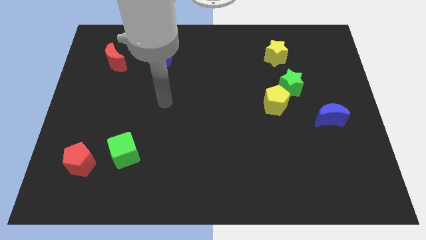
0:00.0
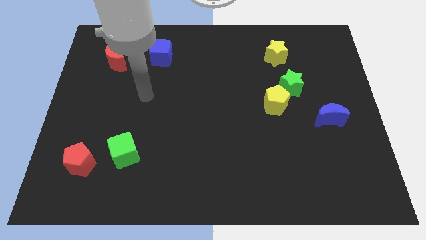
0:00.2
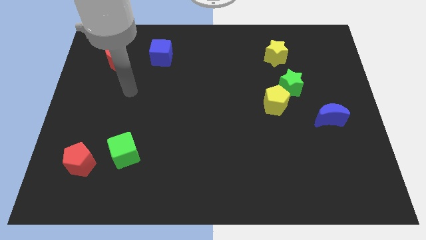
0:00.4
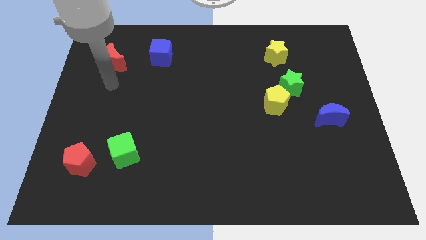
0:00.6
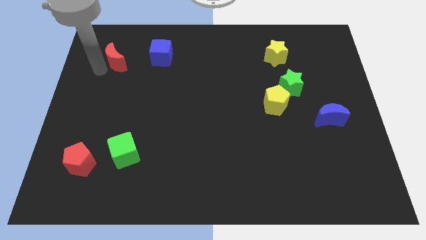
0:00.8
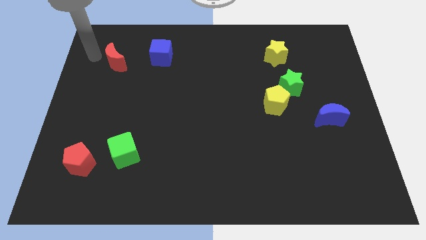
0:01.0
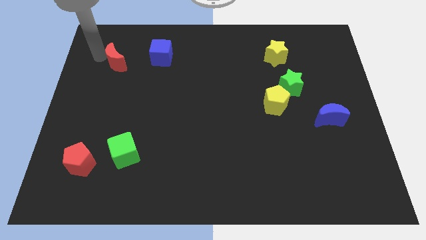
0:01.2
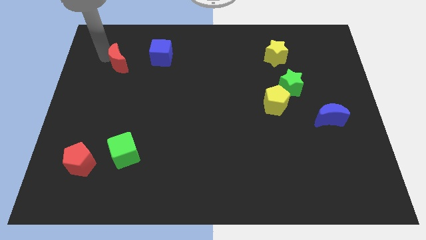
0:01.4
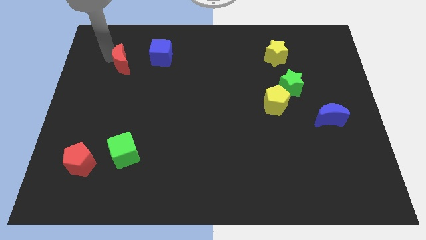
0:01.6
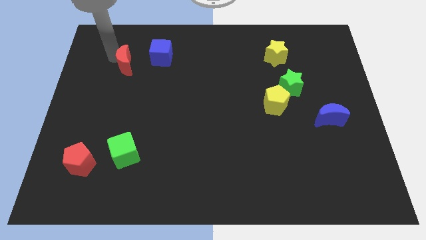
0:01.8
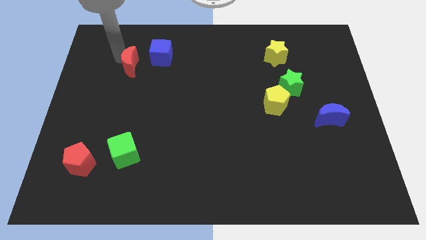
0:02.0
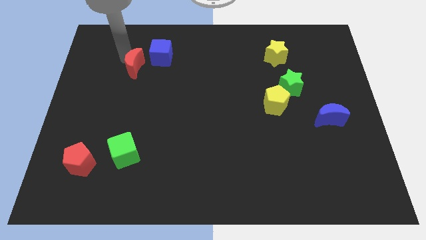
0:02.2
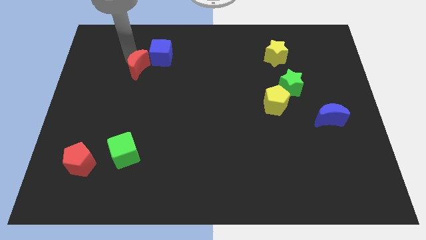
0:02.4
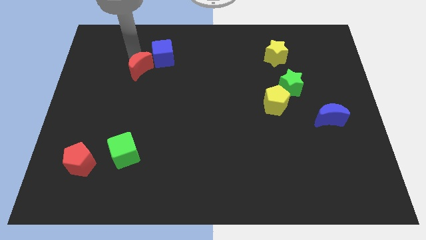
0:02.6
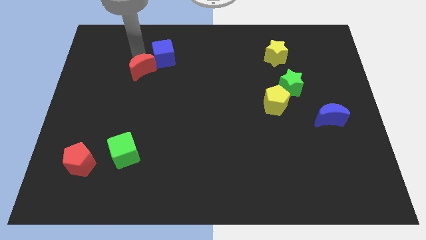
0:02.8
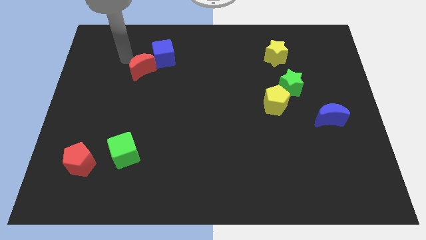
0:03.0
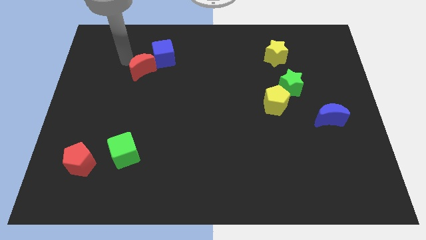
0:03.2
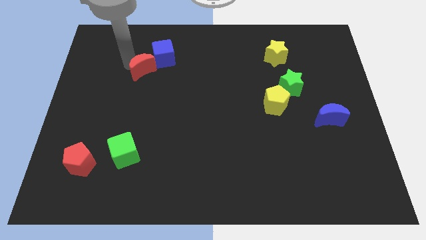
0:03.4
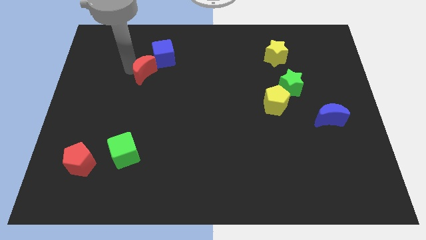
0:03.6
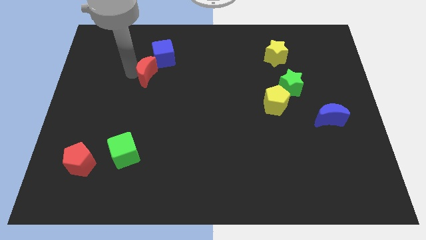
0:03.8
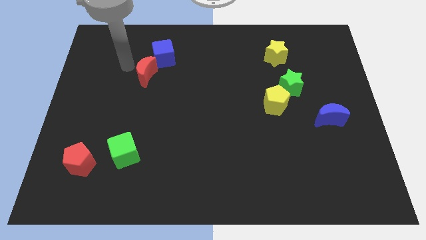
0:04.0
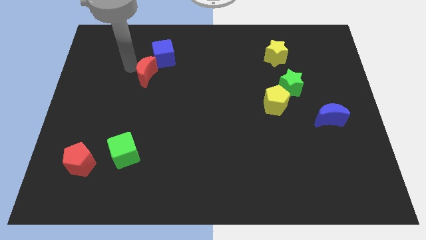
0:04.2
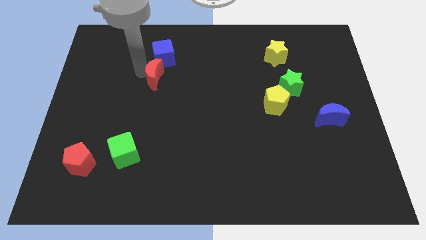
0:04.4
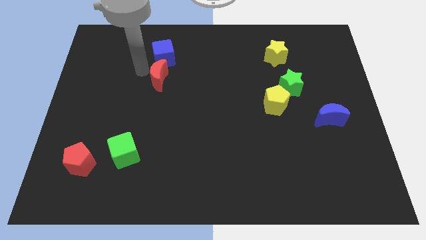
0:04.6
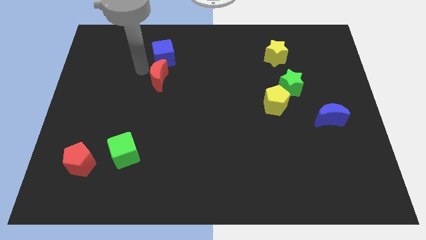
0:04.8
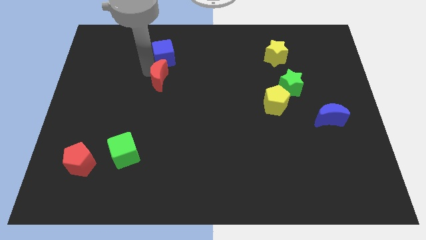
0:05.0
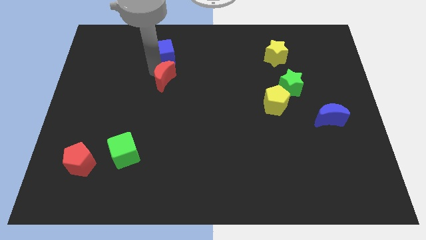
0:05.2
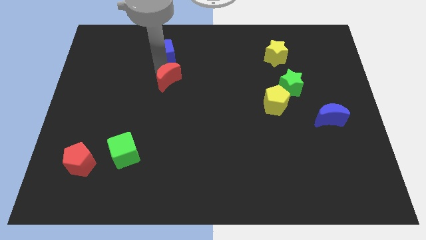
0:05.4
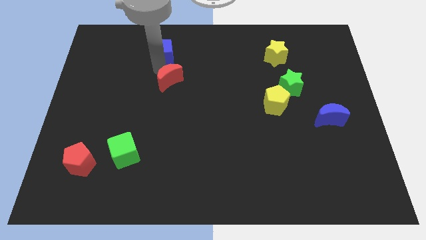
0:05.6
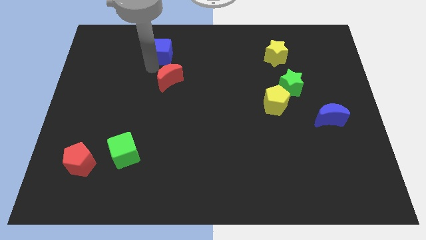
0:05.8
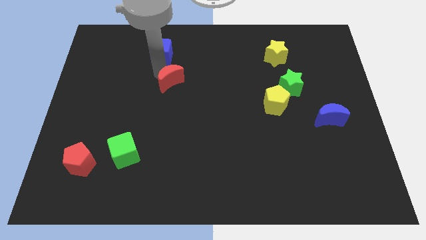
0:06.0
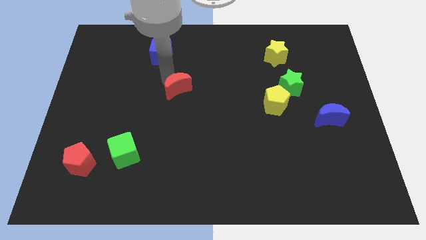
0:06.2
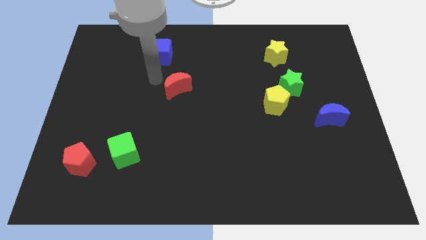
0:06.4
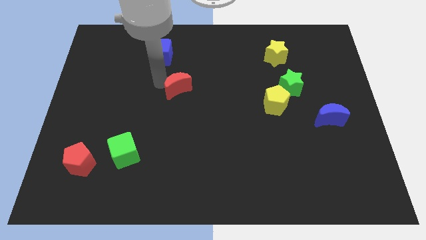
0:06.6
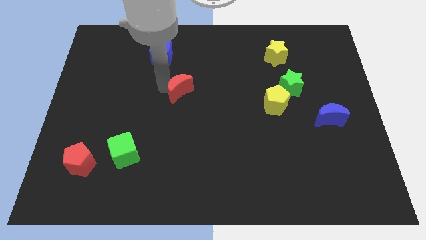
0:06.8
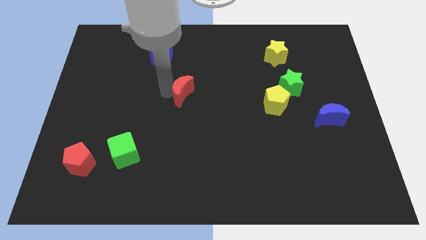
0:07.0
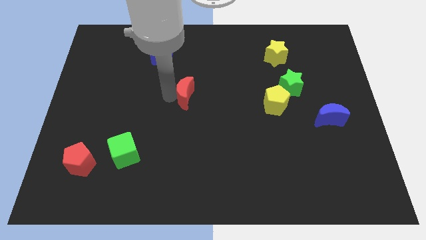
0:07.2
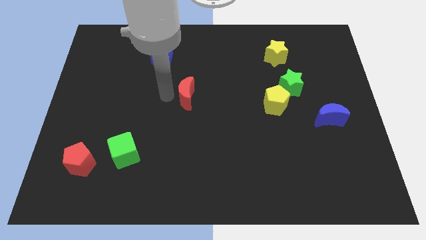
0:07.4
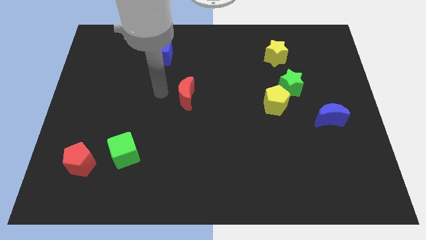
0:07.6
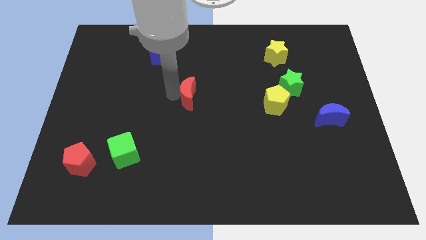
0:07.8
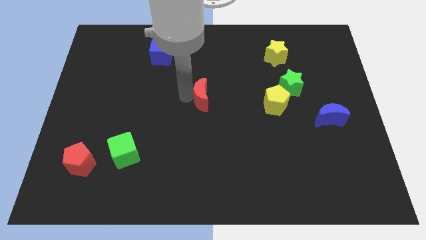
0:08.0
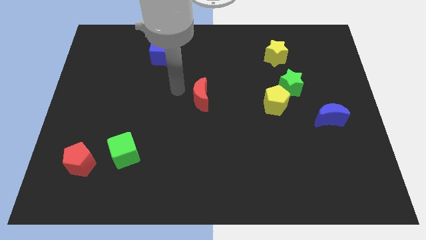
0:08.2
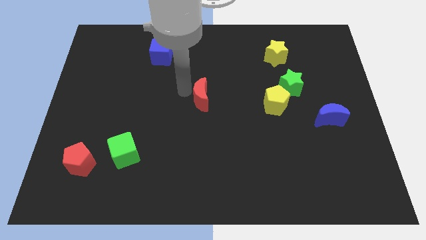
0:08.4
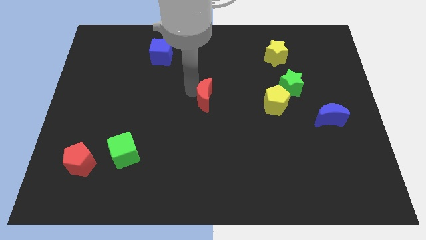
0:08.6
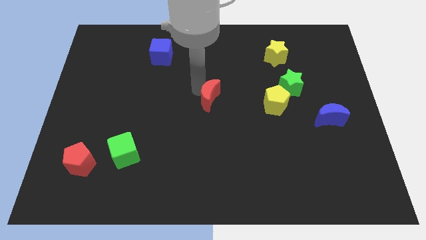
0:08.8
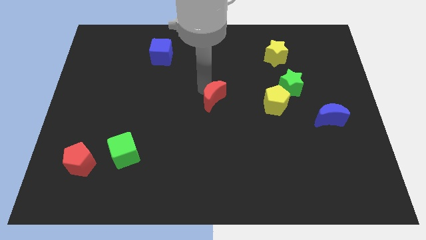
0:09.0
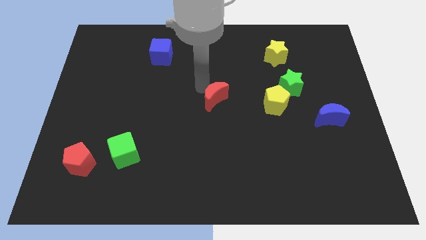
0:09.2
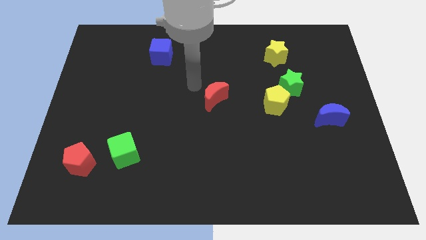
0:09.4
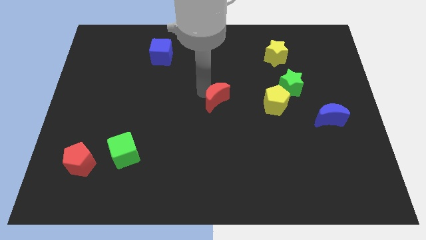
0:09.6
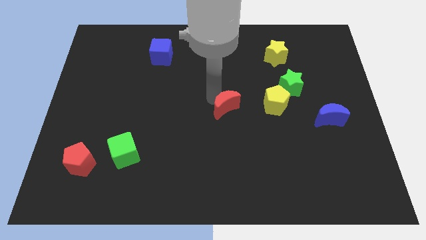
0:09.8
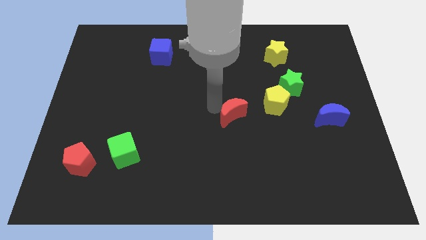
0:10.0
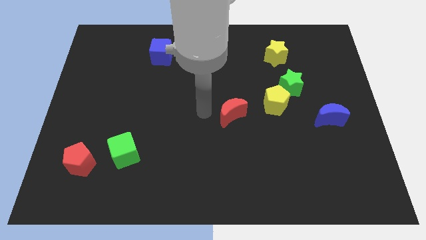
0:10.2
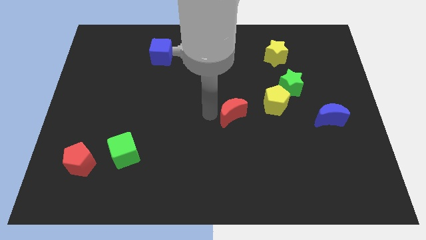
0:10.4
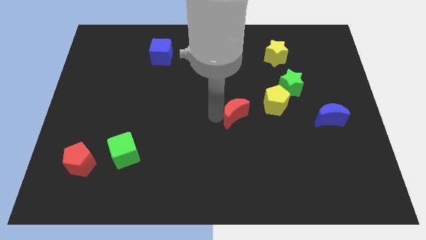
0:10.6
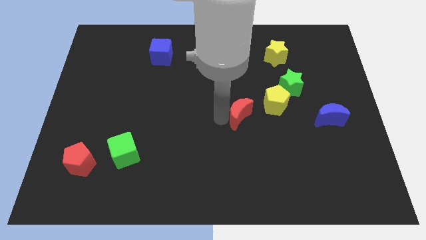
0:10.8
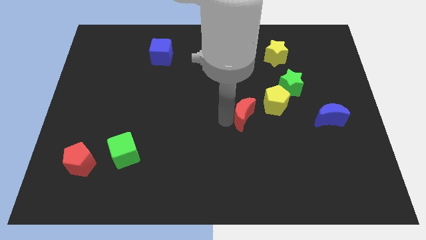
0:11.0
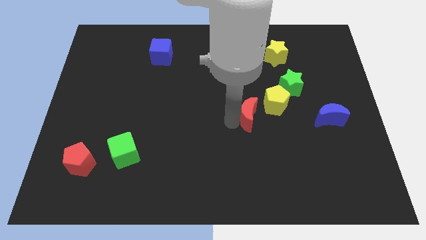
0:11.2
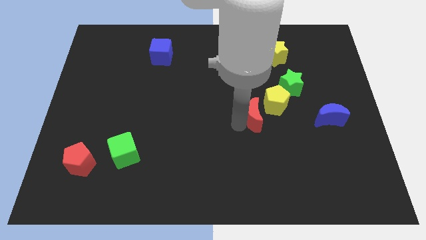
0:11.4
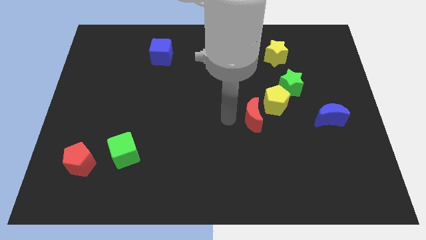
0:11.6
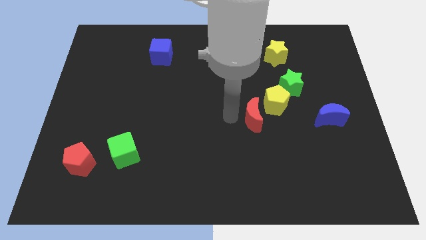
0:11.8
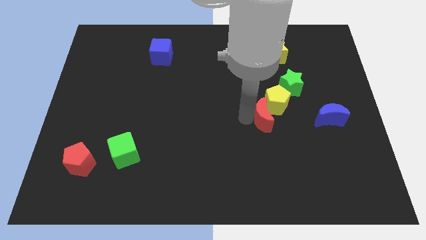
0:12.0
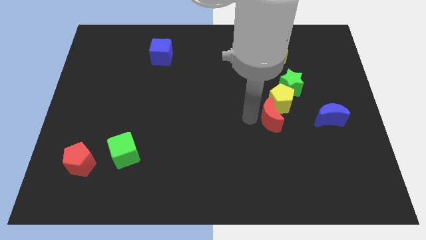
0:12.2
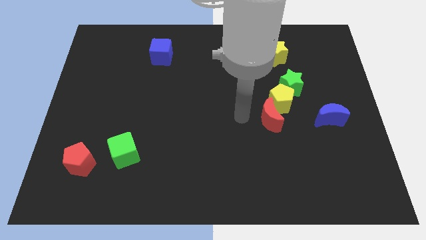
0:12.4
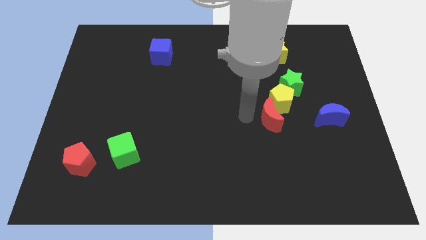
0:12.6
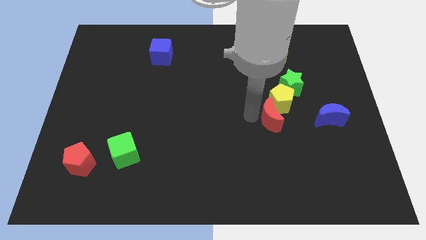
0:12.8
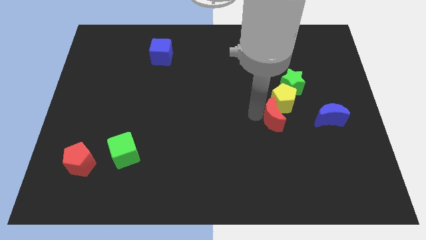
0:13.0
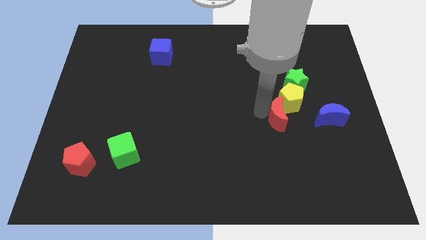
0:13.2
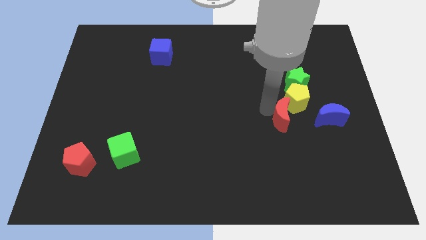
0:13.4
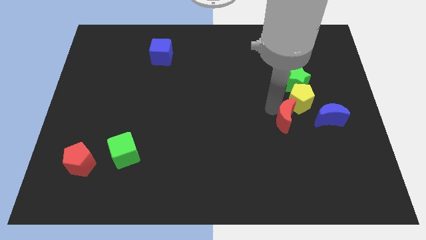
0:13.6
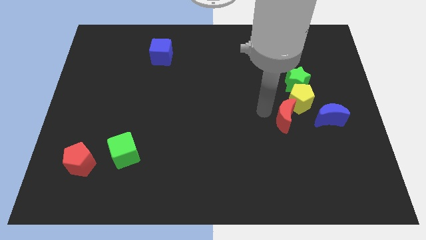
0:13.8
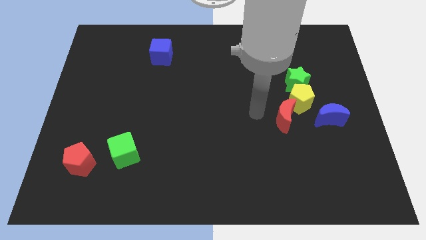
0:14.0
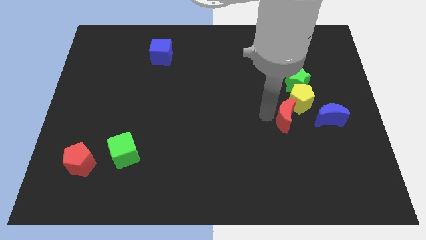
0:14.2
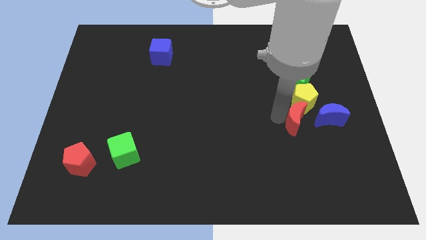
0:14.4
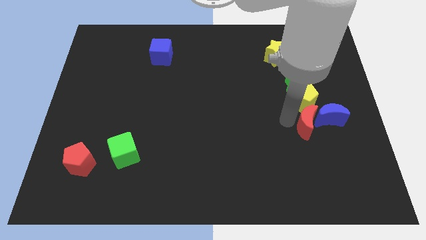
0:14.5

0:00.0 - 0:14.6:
move the red moon next to the blue moon

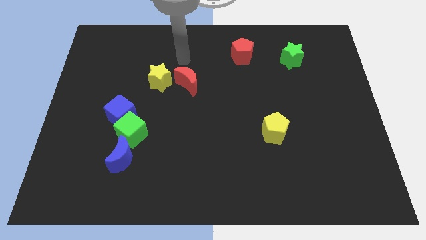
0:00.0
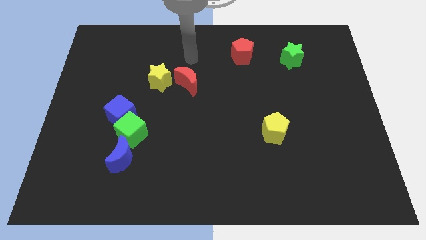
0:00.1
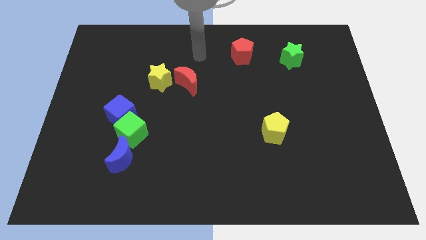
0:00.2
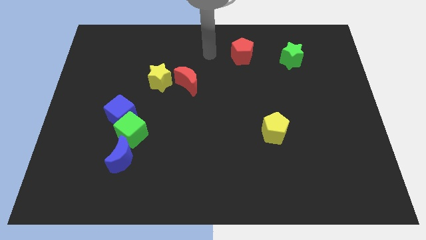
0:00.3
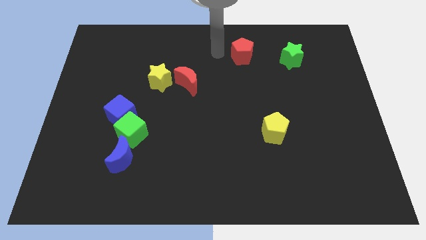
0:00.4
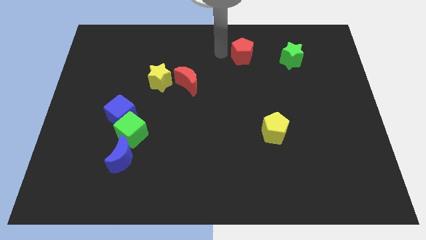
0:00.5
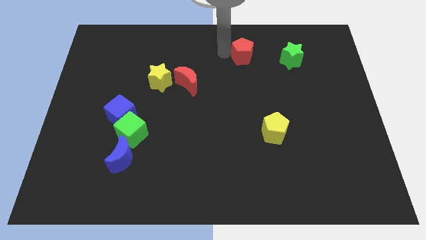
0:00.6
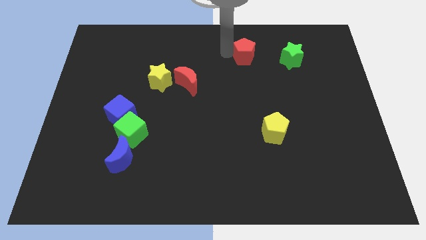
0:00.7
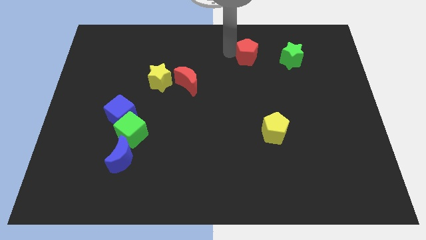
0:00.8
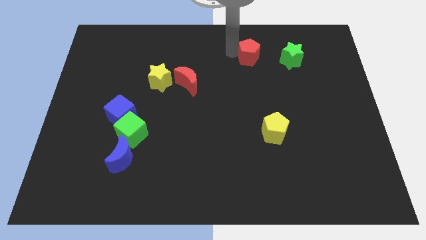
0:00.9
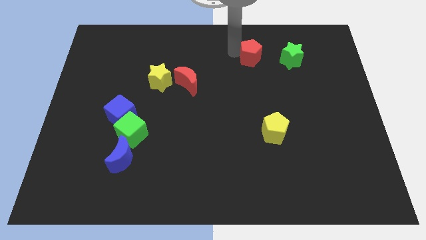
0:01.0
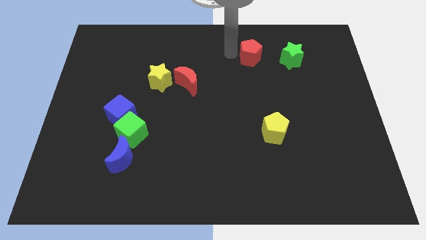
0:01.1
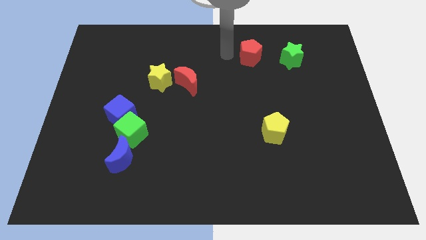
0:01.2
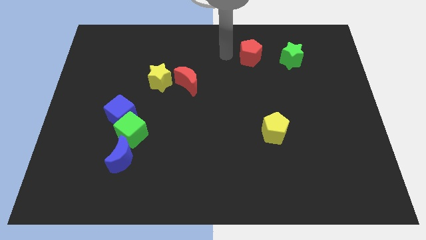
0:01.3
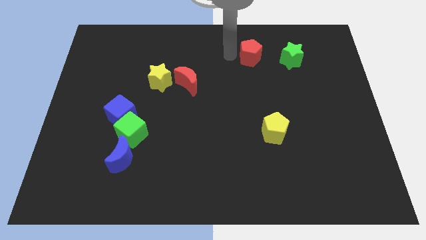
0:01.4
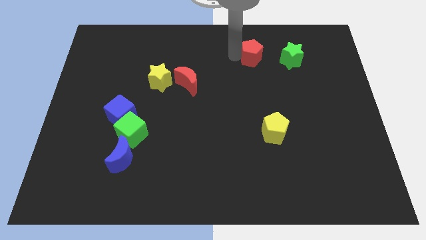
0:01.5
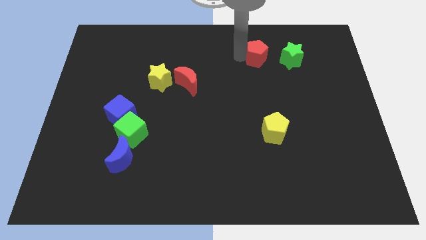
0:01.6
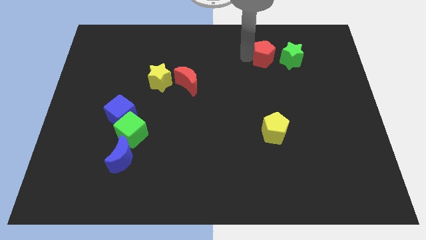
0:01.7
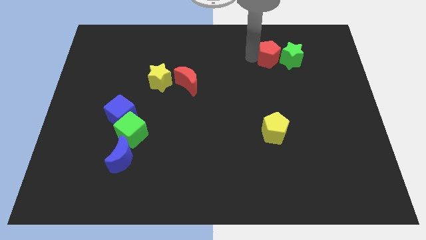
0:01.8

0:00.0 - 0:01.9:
put the red pentagon close to the green star
